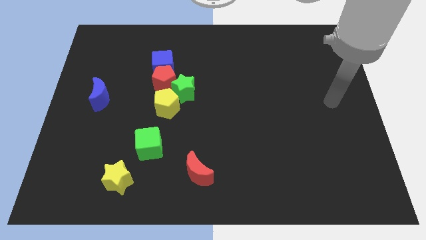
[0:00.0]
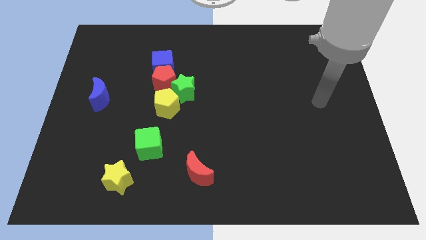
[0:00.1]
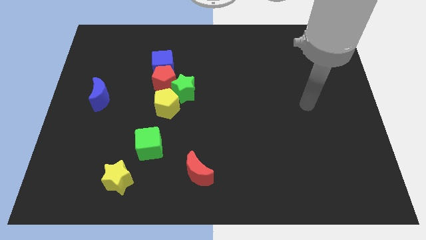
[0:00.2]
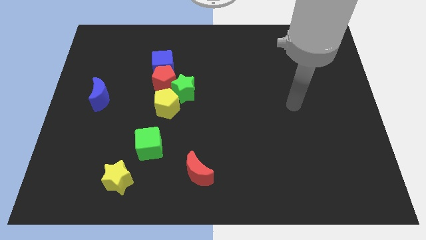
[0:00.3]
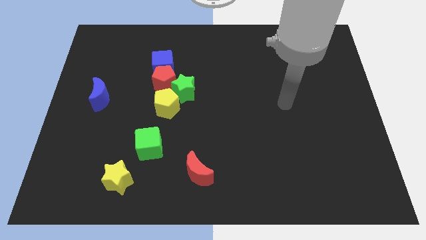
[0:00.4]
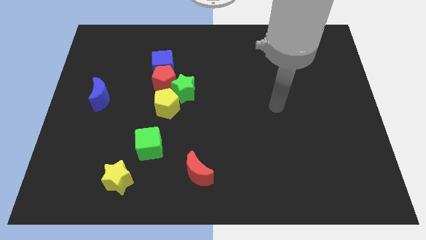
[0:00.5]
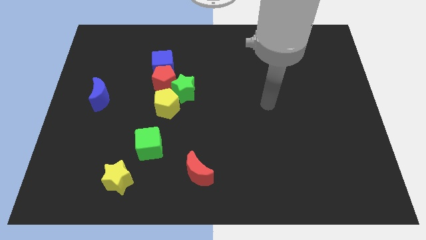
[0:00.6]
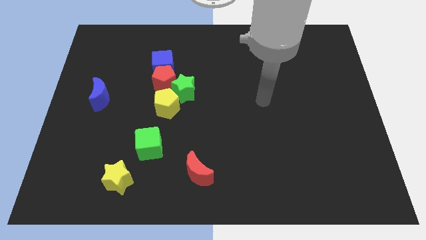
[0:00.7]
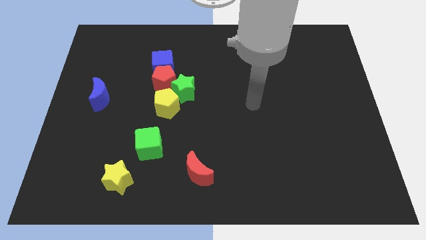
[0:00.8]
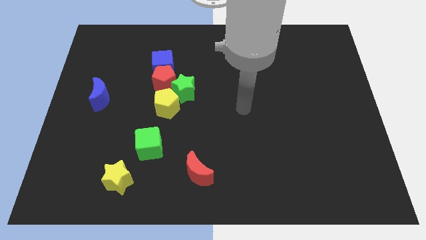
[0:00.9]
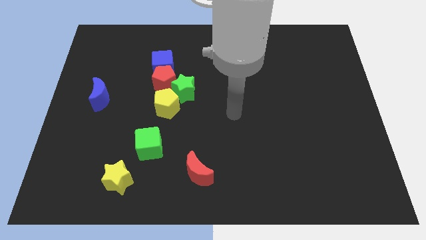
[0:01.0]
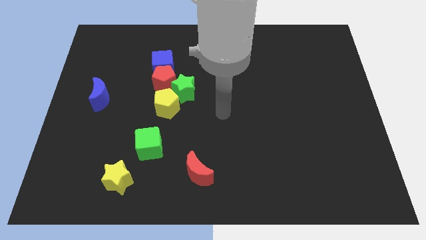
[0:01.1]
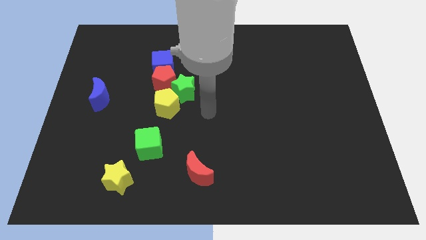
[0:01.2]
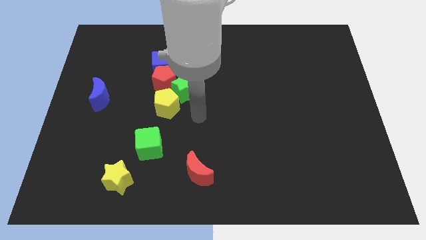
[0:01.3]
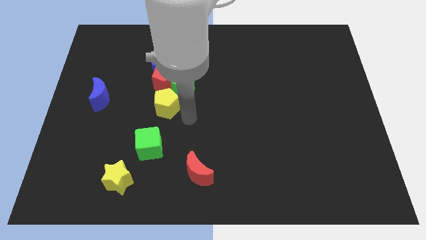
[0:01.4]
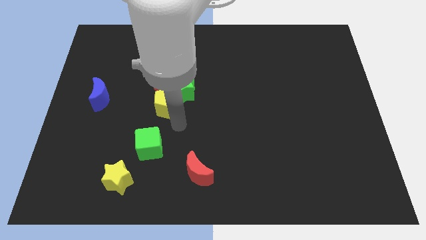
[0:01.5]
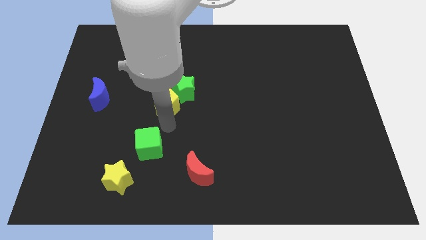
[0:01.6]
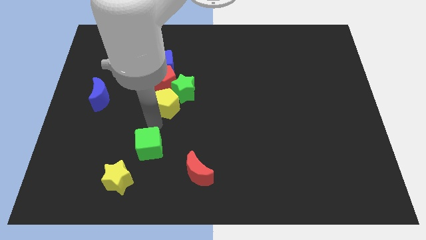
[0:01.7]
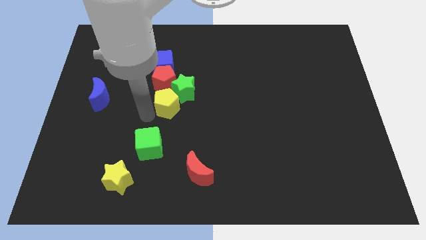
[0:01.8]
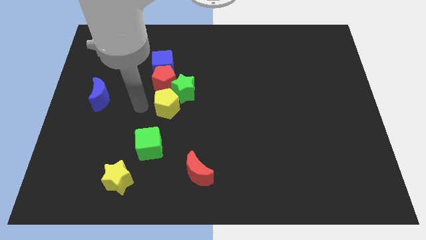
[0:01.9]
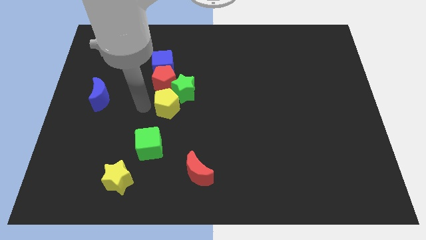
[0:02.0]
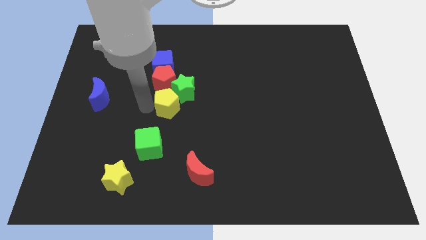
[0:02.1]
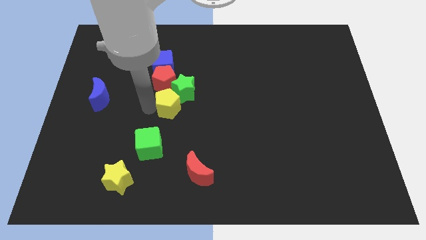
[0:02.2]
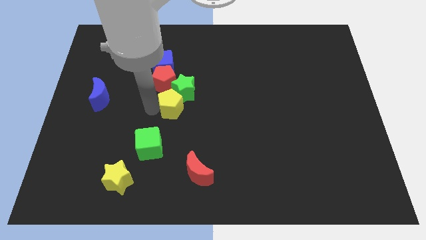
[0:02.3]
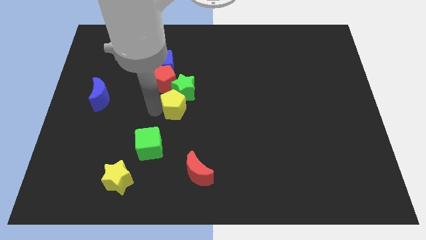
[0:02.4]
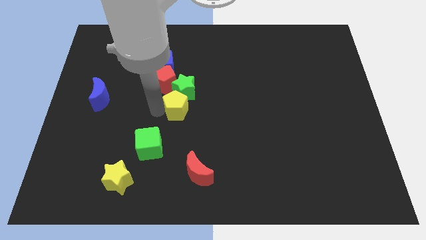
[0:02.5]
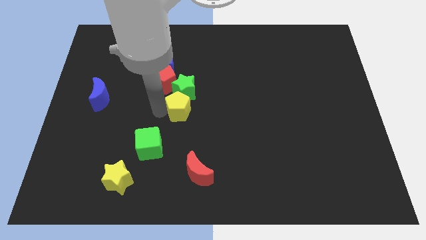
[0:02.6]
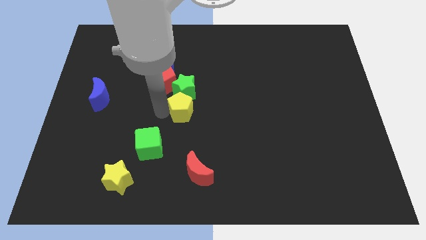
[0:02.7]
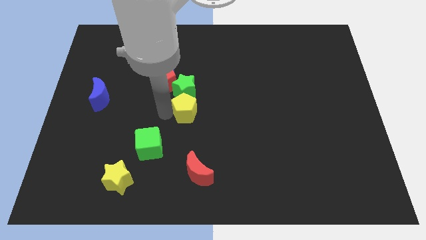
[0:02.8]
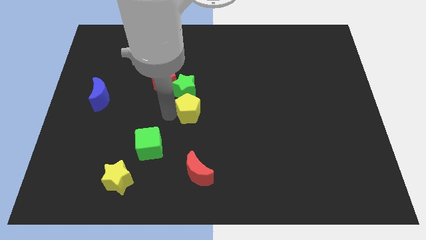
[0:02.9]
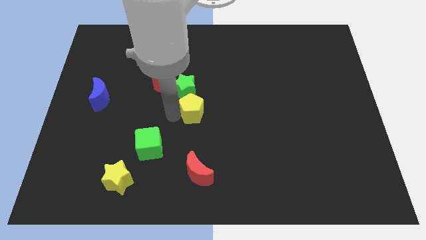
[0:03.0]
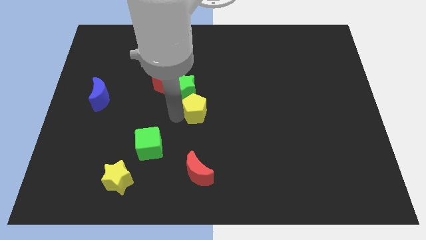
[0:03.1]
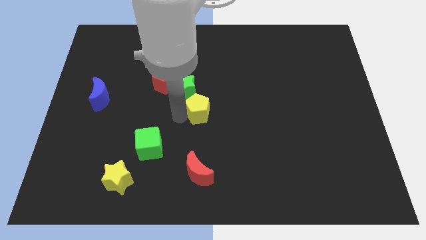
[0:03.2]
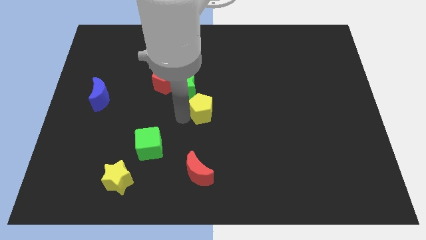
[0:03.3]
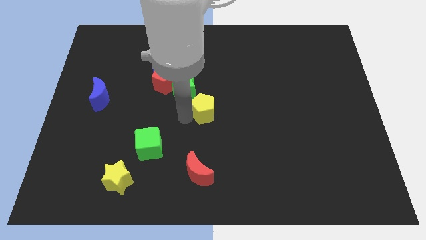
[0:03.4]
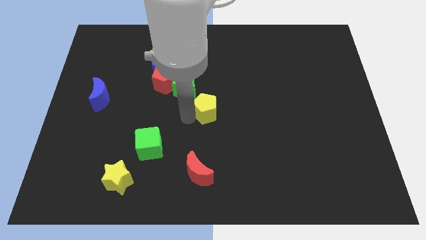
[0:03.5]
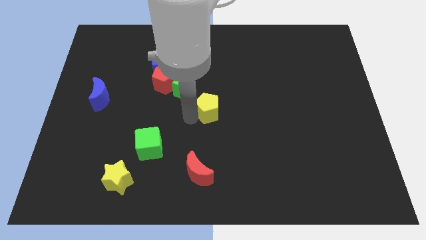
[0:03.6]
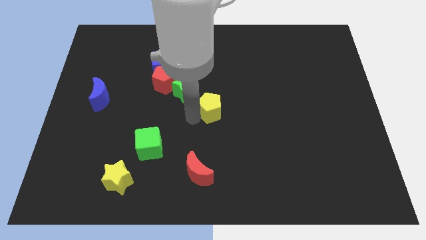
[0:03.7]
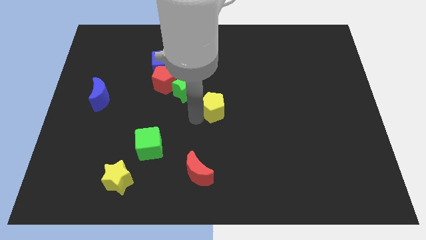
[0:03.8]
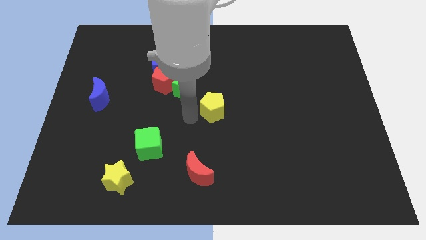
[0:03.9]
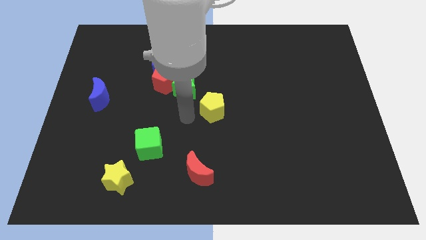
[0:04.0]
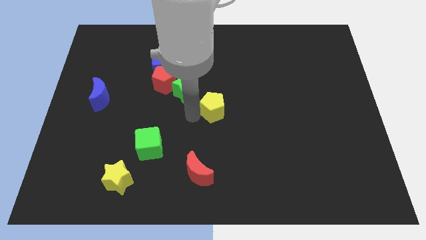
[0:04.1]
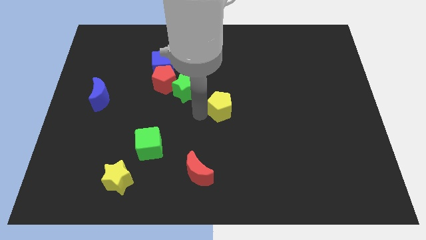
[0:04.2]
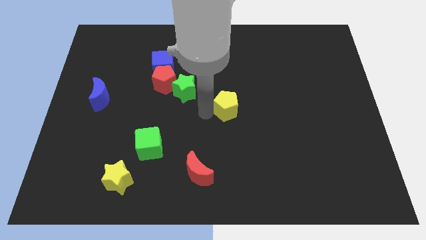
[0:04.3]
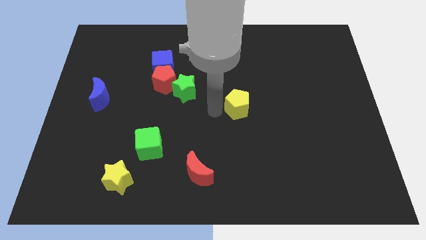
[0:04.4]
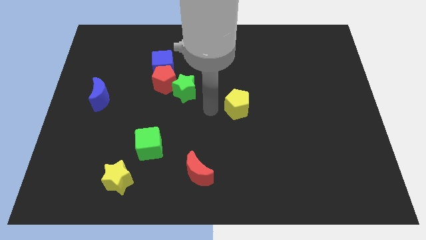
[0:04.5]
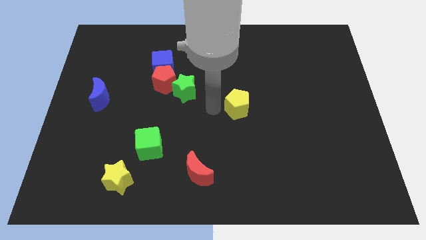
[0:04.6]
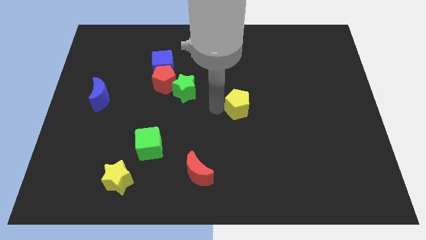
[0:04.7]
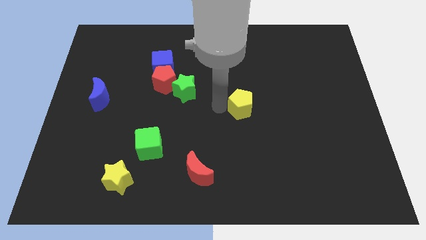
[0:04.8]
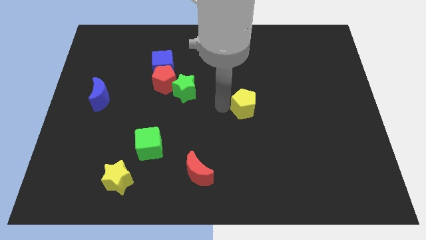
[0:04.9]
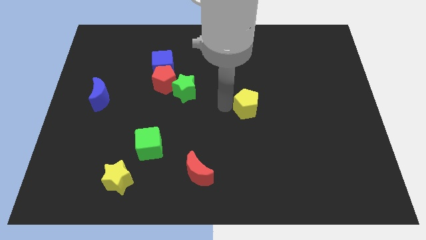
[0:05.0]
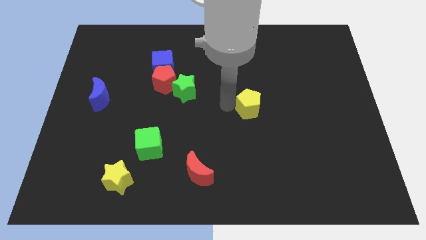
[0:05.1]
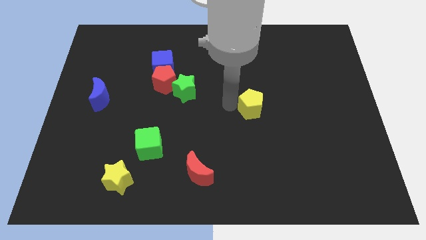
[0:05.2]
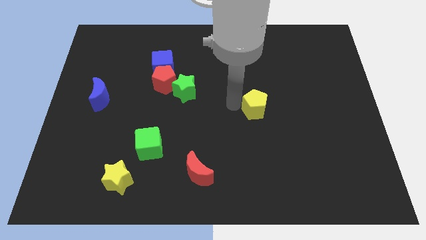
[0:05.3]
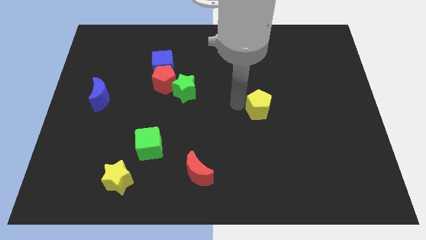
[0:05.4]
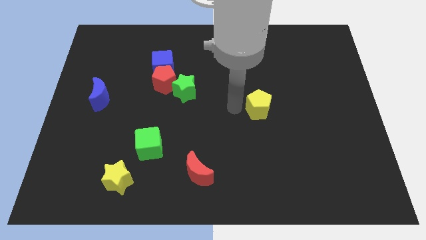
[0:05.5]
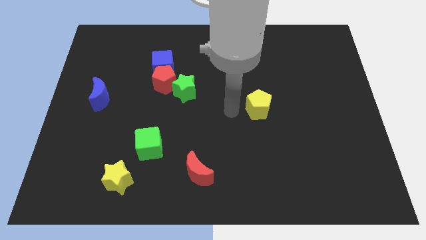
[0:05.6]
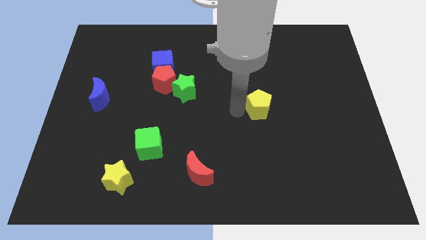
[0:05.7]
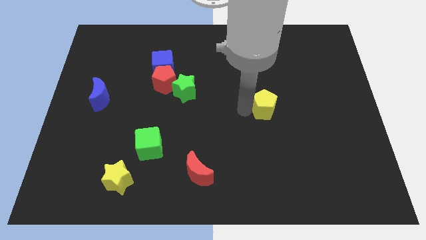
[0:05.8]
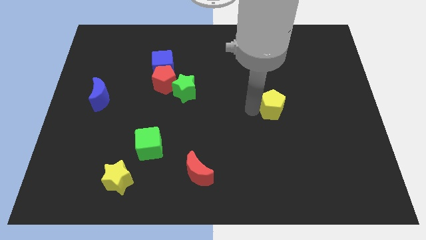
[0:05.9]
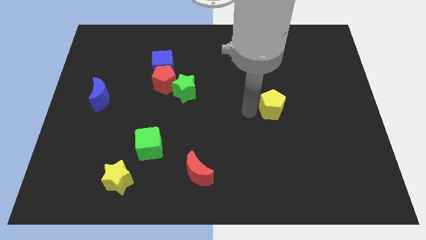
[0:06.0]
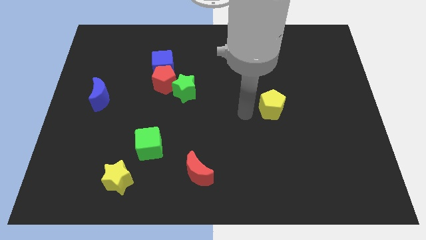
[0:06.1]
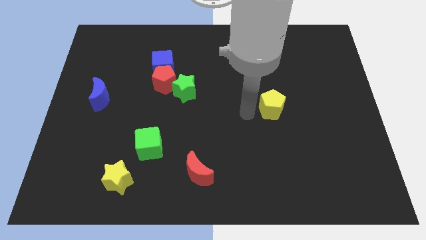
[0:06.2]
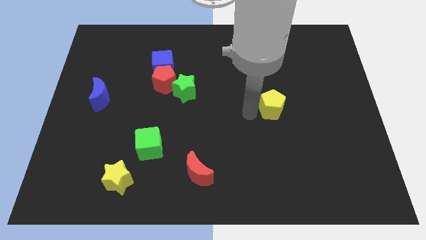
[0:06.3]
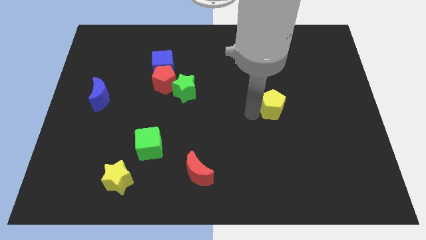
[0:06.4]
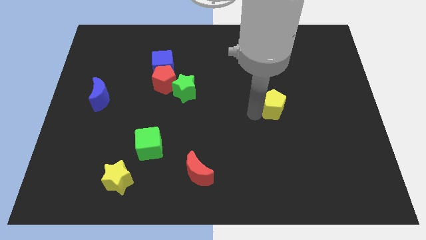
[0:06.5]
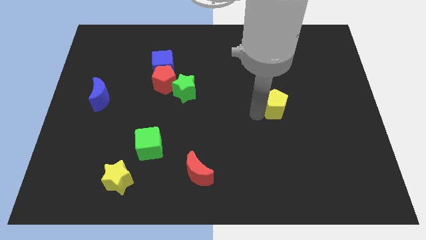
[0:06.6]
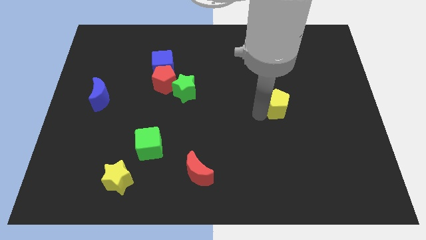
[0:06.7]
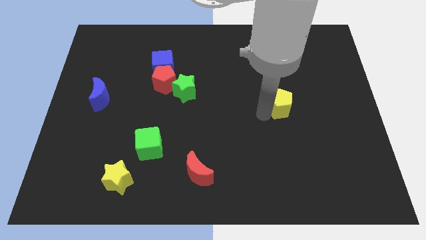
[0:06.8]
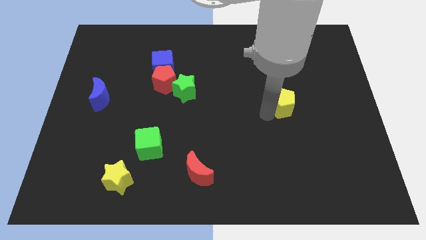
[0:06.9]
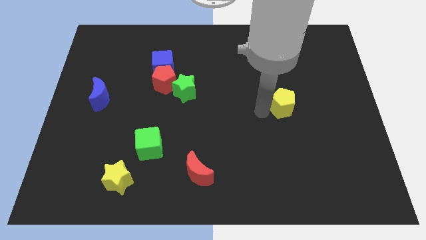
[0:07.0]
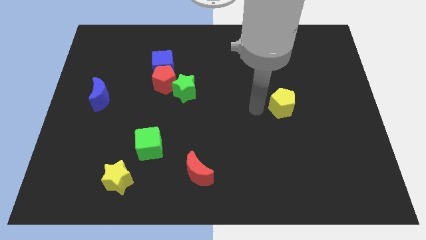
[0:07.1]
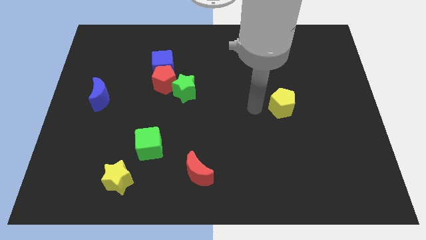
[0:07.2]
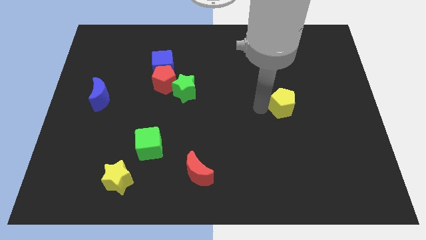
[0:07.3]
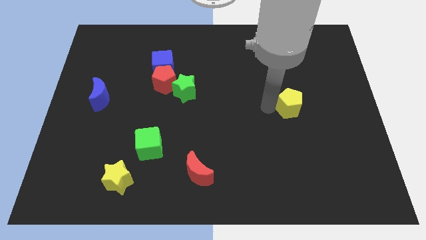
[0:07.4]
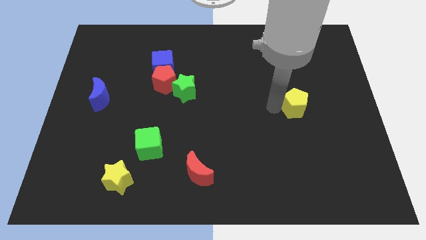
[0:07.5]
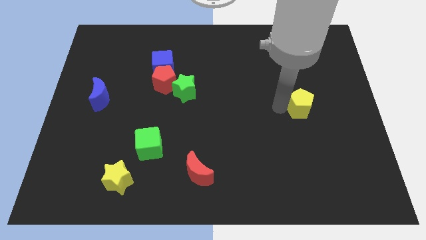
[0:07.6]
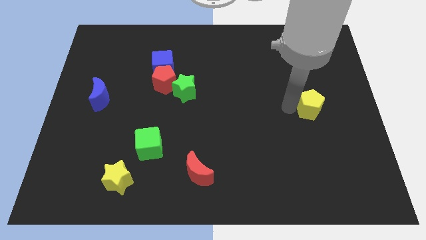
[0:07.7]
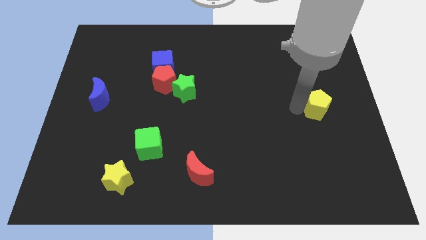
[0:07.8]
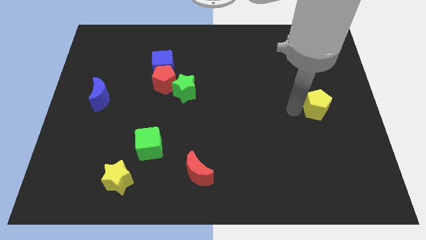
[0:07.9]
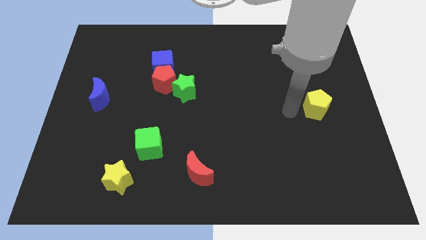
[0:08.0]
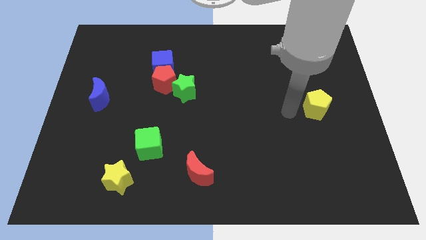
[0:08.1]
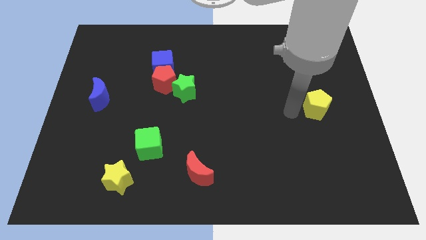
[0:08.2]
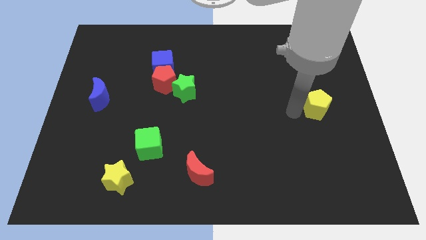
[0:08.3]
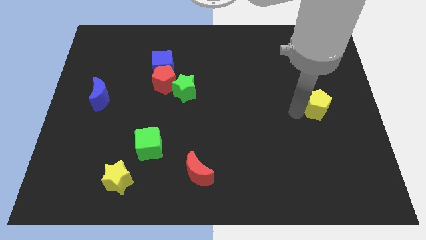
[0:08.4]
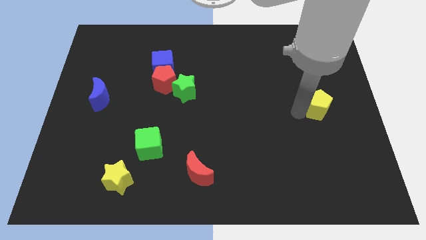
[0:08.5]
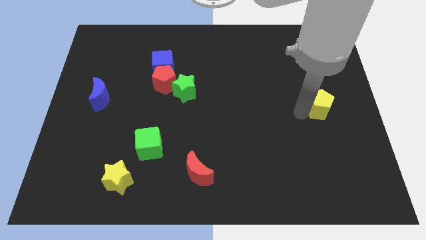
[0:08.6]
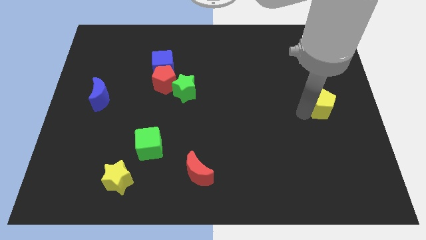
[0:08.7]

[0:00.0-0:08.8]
slide the yellow pentagon to the right side
